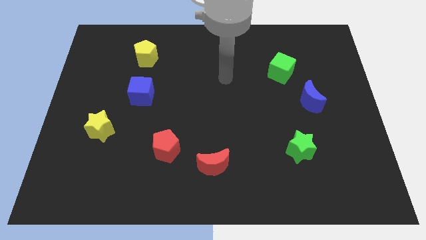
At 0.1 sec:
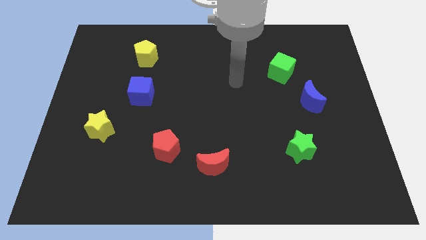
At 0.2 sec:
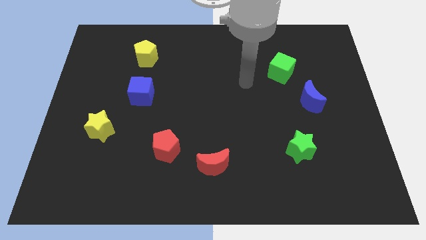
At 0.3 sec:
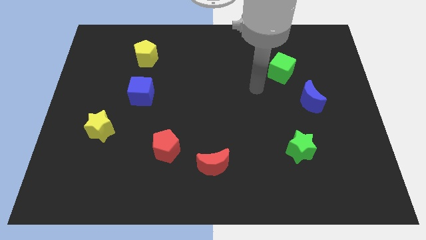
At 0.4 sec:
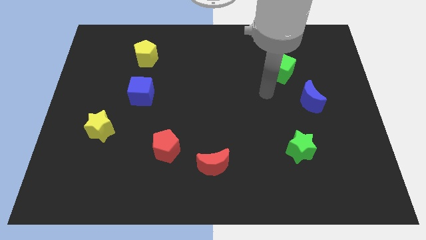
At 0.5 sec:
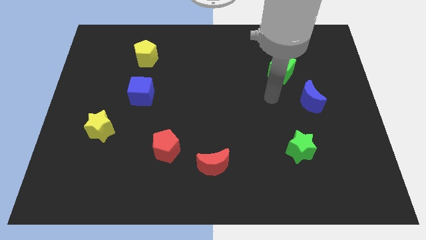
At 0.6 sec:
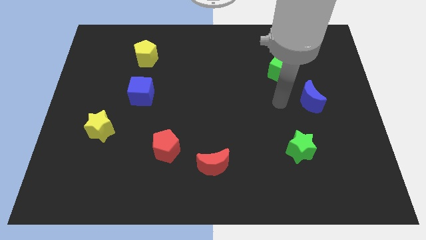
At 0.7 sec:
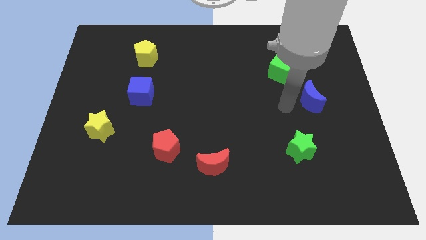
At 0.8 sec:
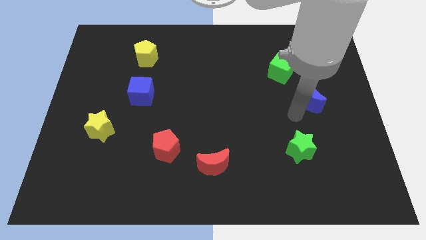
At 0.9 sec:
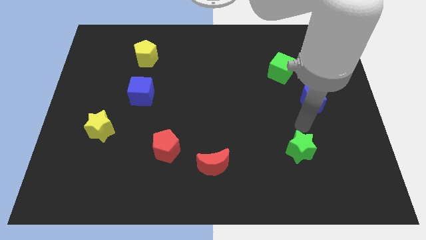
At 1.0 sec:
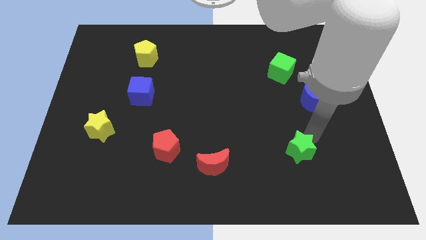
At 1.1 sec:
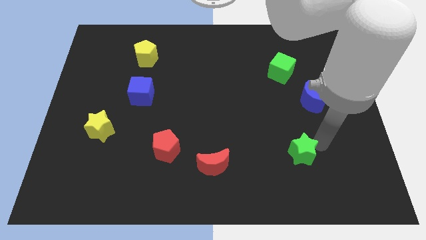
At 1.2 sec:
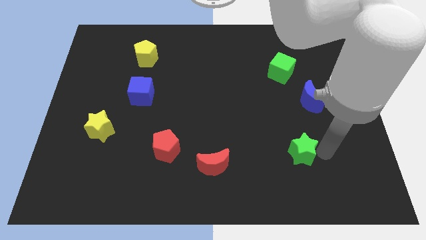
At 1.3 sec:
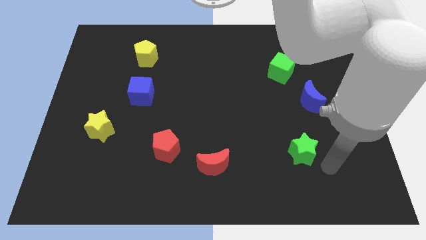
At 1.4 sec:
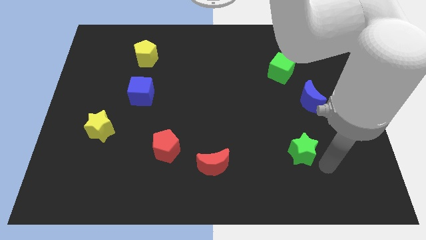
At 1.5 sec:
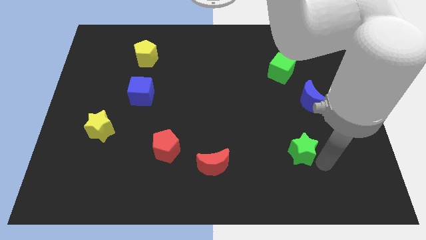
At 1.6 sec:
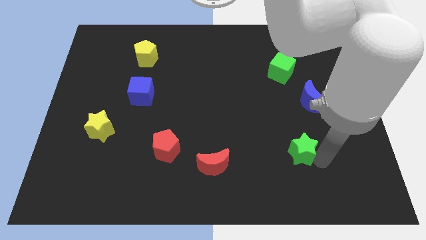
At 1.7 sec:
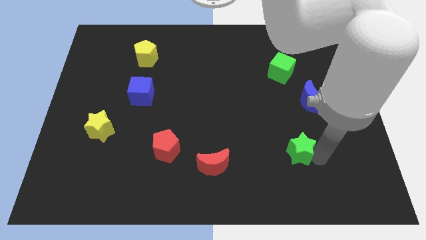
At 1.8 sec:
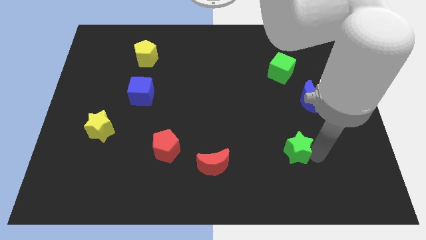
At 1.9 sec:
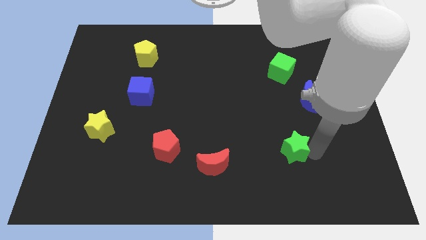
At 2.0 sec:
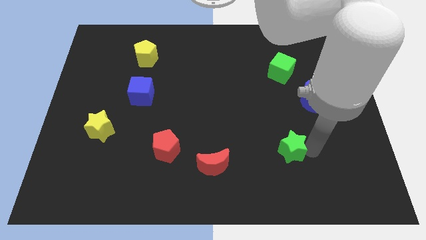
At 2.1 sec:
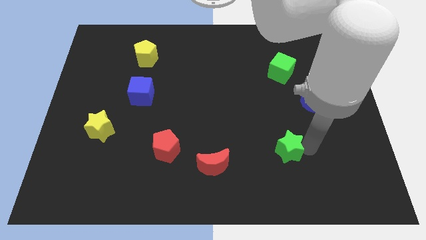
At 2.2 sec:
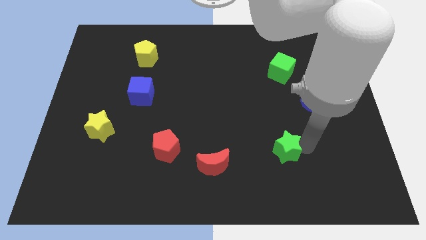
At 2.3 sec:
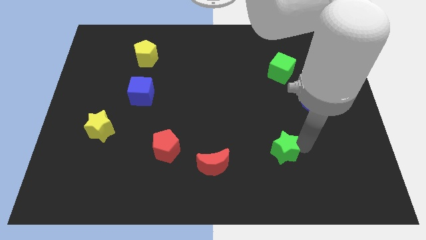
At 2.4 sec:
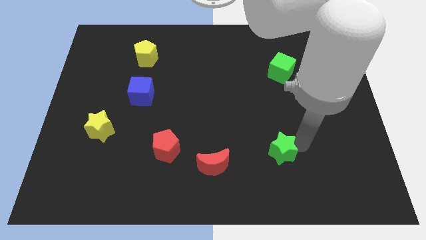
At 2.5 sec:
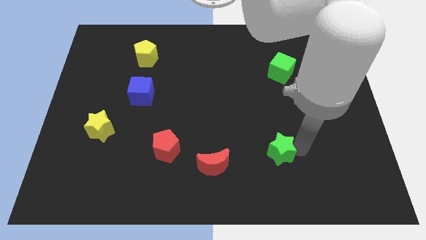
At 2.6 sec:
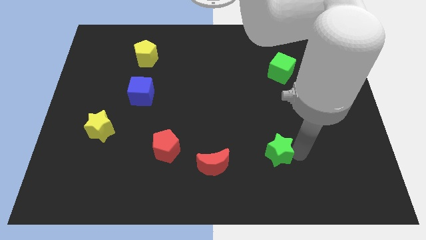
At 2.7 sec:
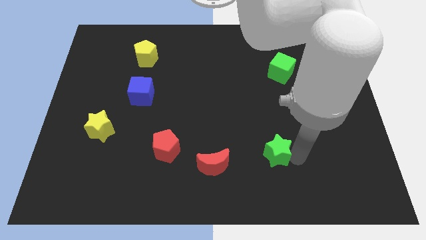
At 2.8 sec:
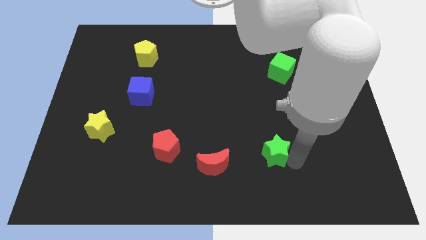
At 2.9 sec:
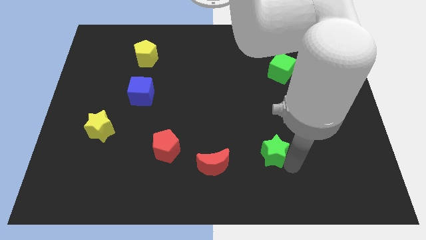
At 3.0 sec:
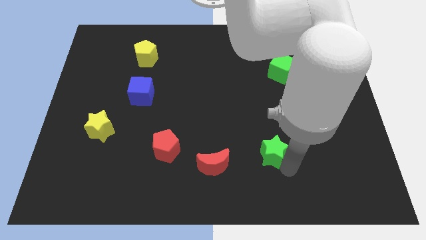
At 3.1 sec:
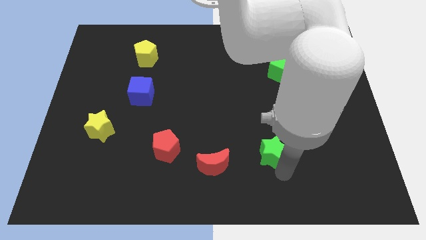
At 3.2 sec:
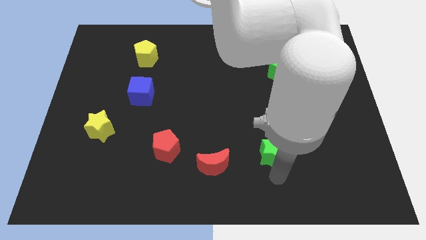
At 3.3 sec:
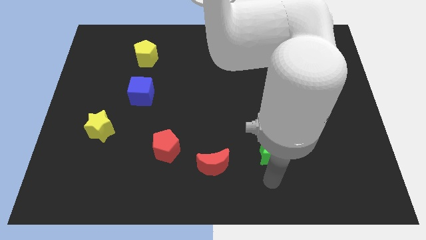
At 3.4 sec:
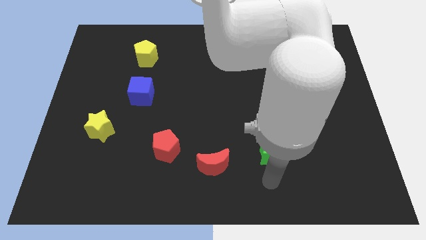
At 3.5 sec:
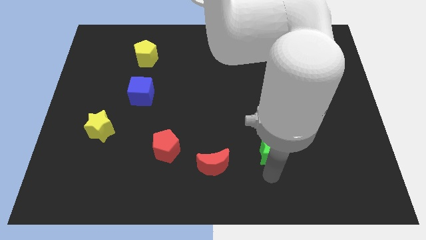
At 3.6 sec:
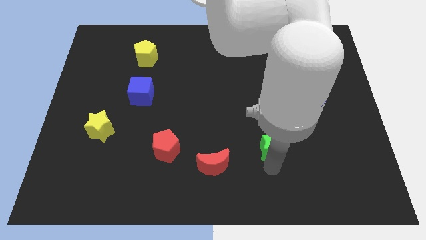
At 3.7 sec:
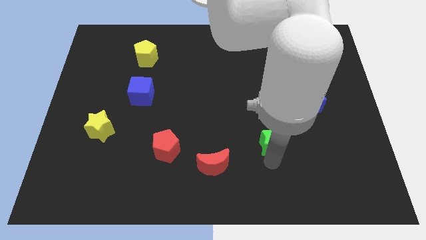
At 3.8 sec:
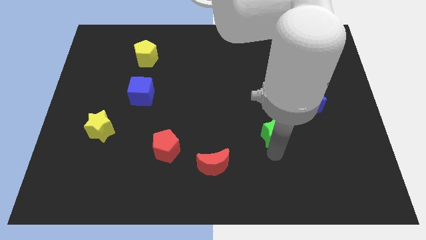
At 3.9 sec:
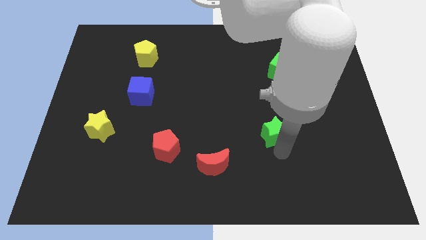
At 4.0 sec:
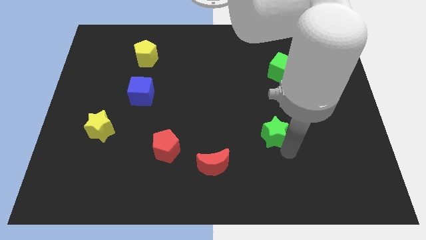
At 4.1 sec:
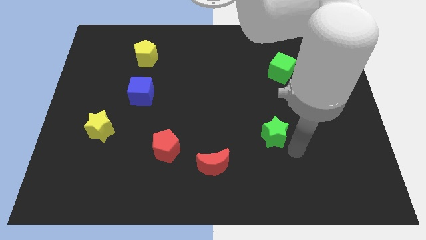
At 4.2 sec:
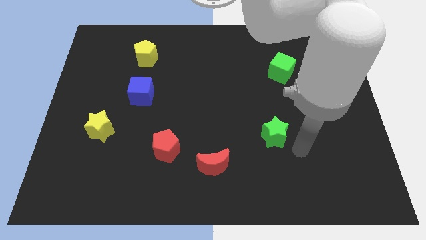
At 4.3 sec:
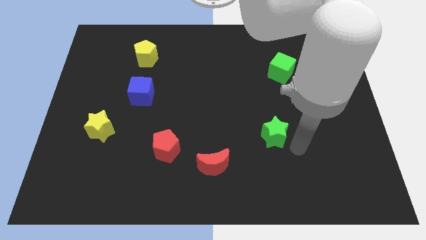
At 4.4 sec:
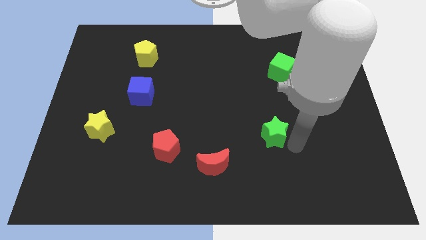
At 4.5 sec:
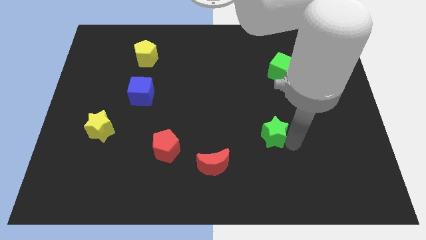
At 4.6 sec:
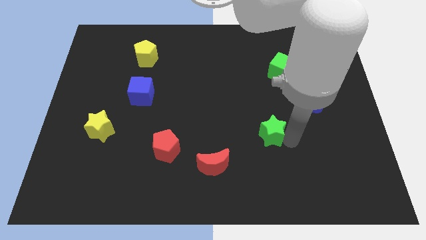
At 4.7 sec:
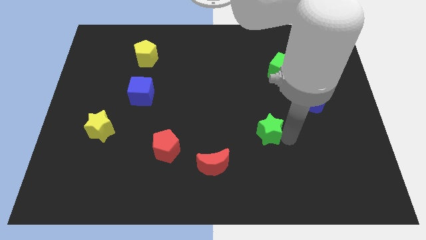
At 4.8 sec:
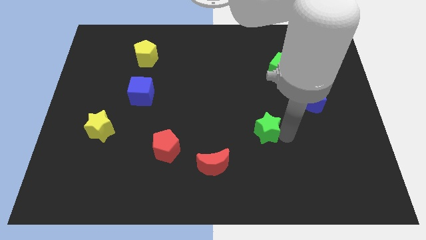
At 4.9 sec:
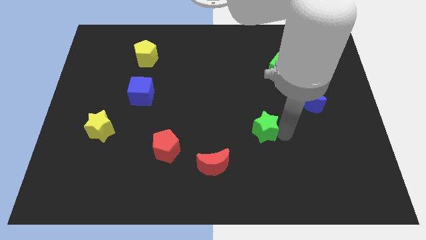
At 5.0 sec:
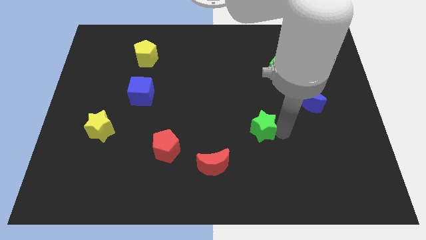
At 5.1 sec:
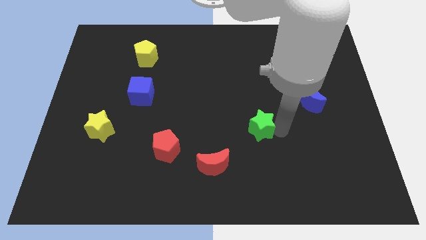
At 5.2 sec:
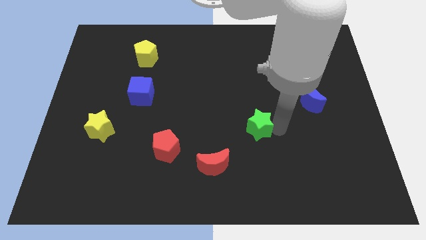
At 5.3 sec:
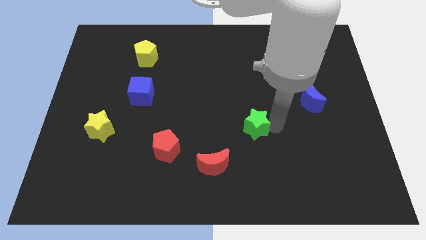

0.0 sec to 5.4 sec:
move the green star to the center of the board
